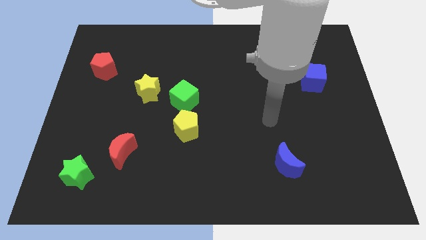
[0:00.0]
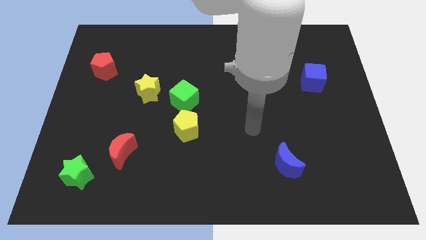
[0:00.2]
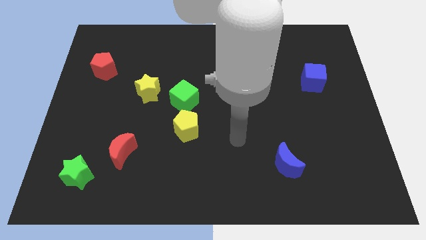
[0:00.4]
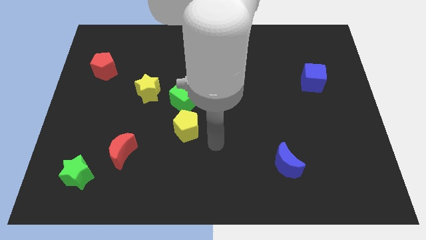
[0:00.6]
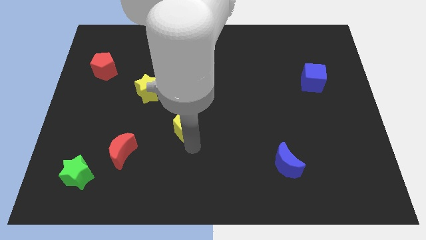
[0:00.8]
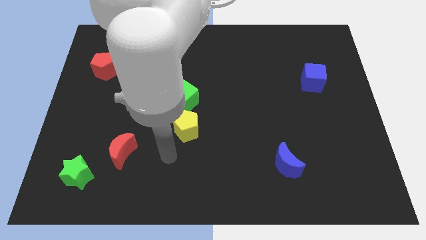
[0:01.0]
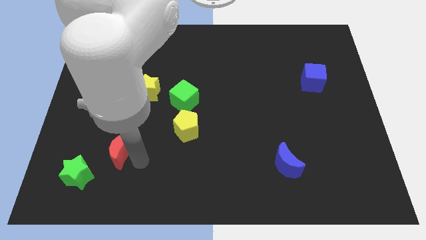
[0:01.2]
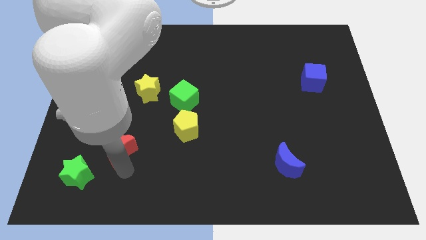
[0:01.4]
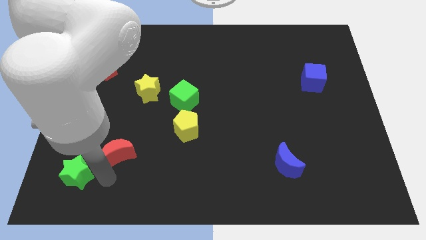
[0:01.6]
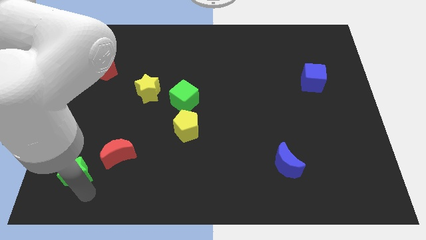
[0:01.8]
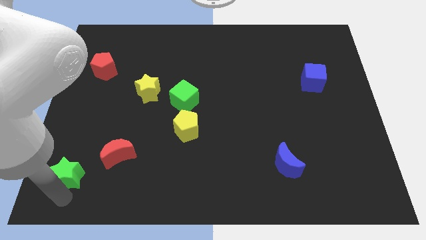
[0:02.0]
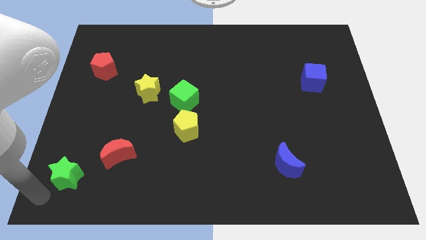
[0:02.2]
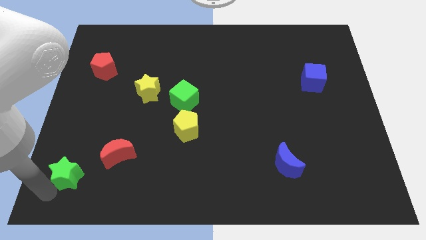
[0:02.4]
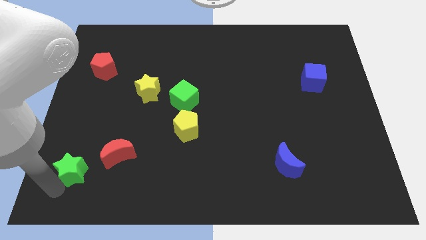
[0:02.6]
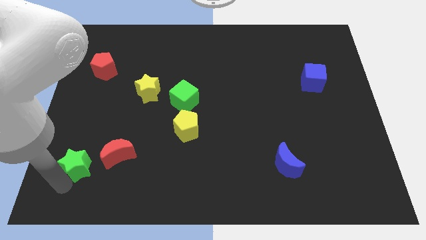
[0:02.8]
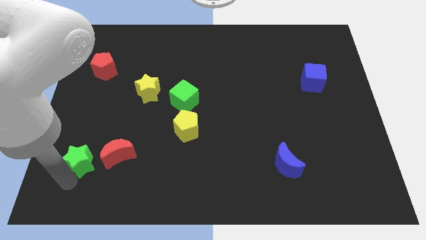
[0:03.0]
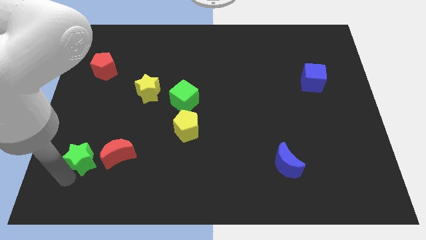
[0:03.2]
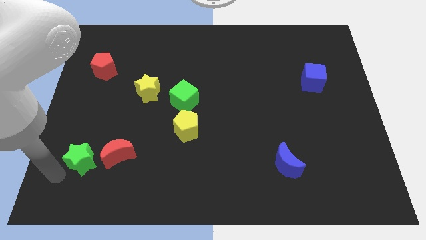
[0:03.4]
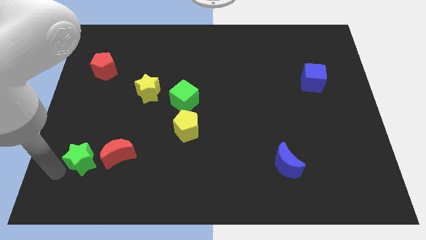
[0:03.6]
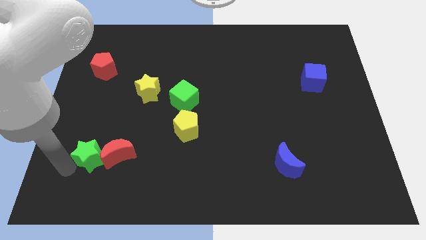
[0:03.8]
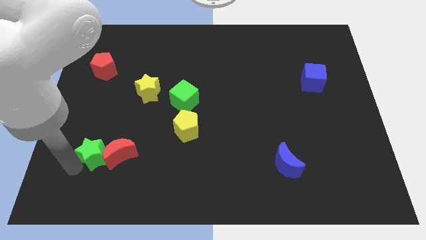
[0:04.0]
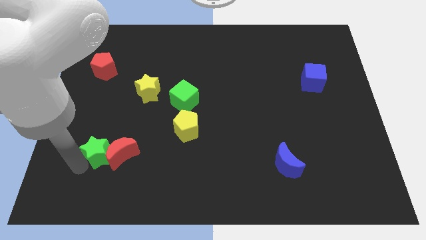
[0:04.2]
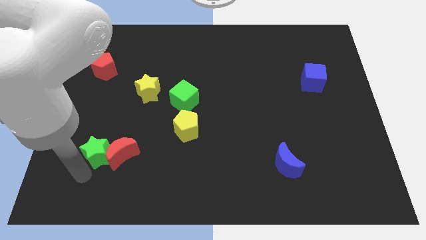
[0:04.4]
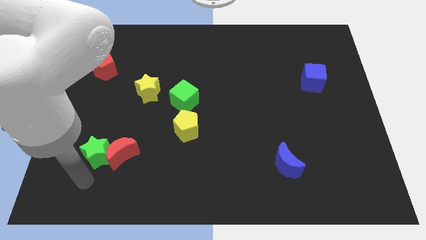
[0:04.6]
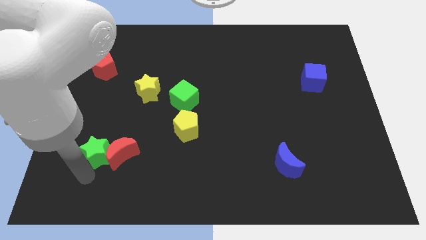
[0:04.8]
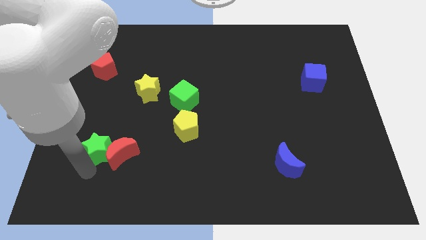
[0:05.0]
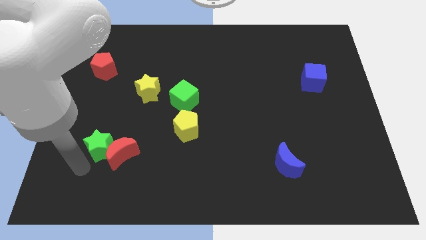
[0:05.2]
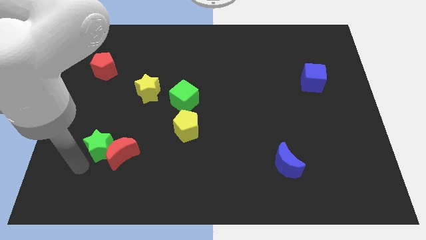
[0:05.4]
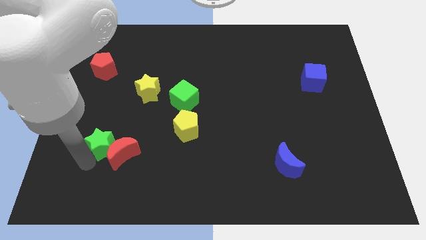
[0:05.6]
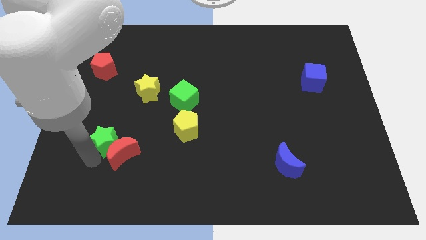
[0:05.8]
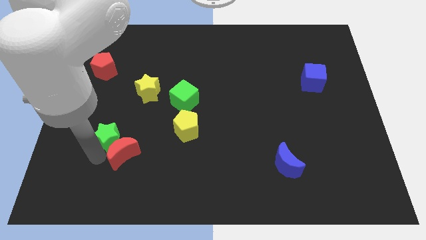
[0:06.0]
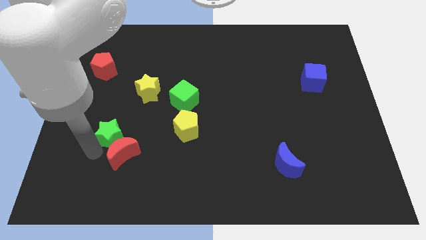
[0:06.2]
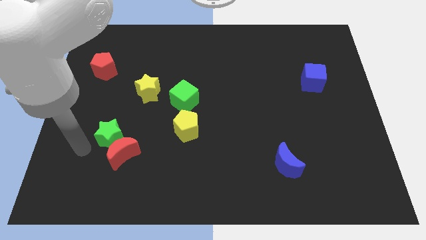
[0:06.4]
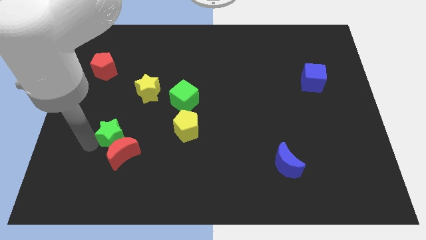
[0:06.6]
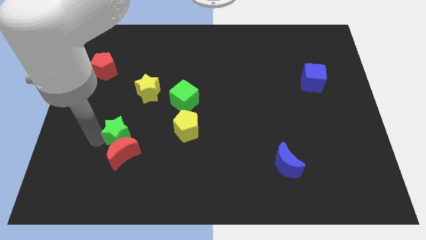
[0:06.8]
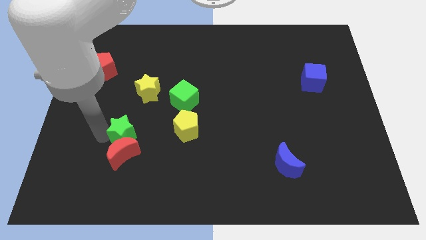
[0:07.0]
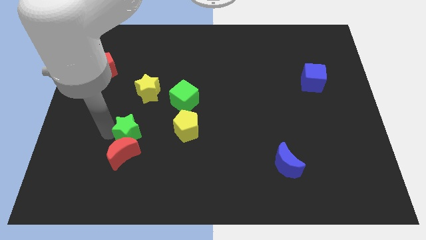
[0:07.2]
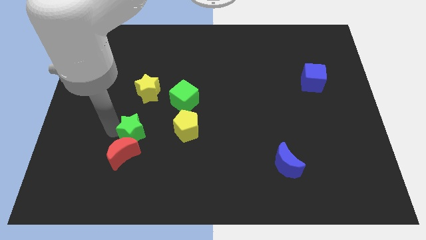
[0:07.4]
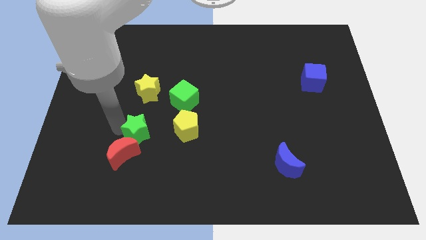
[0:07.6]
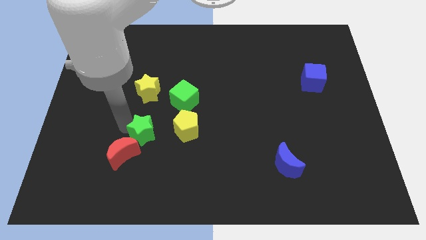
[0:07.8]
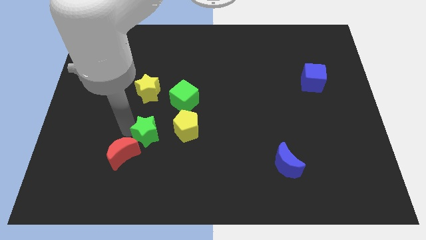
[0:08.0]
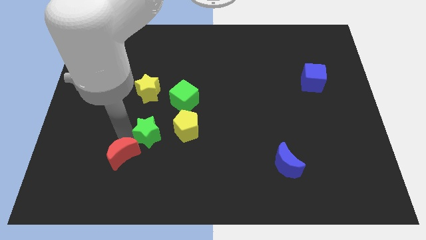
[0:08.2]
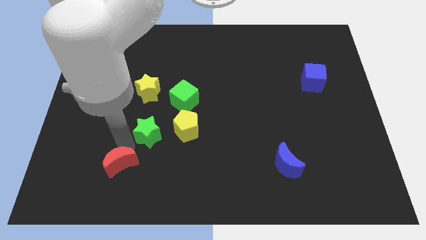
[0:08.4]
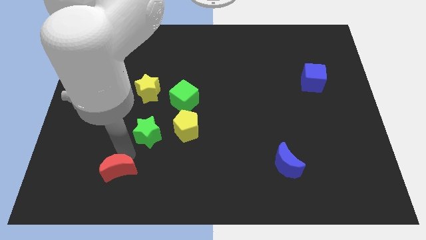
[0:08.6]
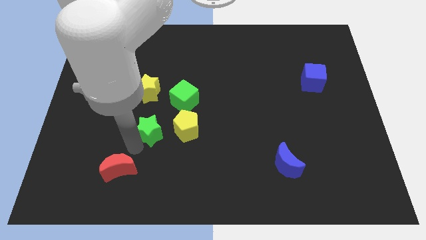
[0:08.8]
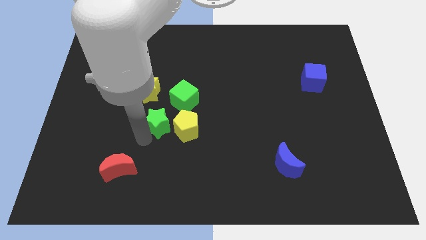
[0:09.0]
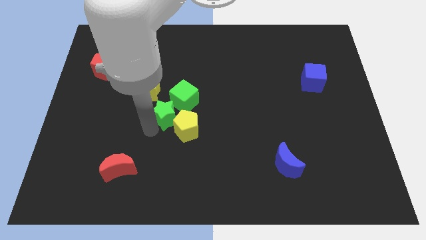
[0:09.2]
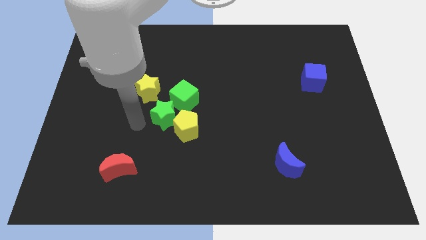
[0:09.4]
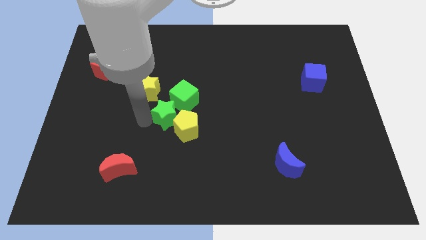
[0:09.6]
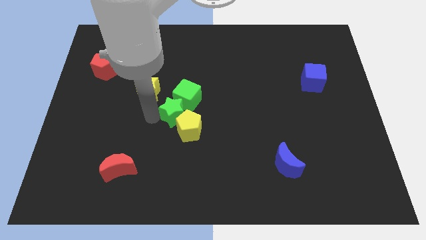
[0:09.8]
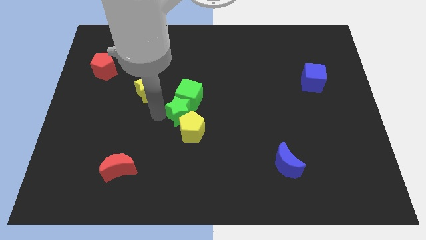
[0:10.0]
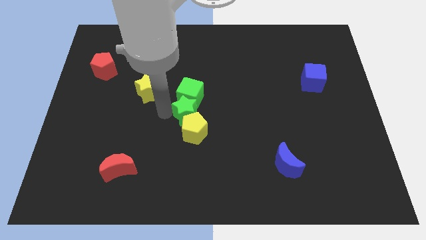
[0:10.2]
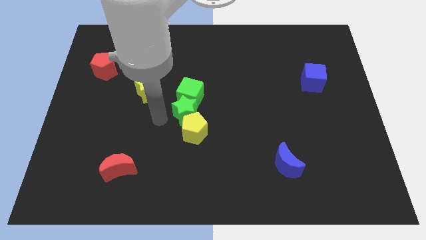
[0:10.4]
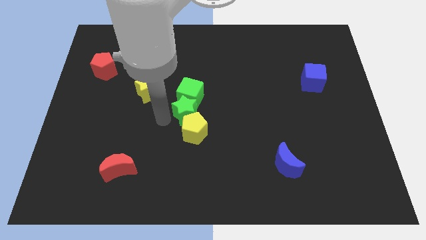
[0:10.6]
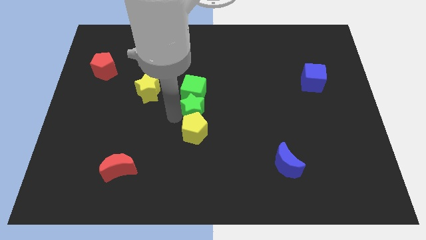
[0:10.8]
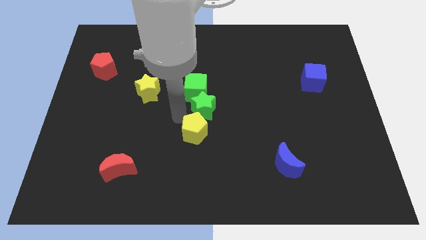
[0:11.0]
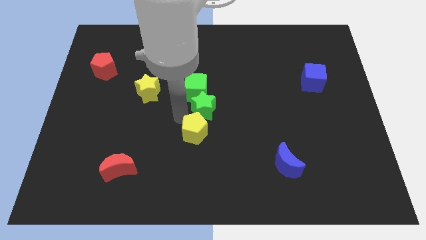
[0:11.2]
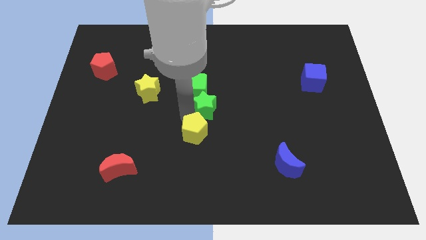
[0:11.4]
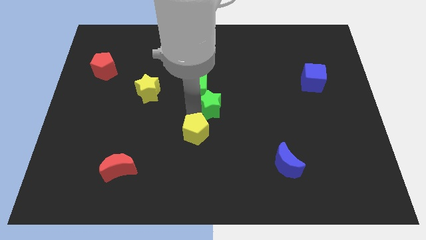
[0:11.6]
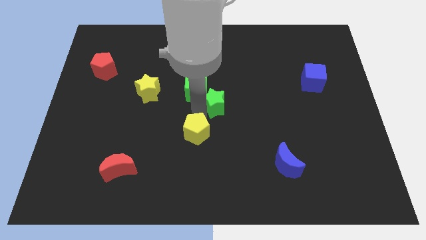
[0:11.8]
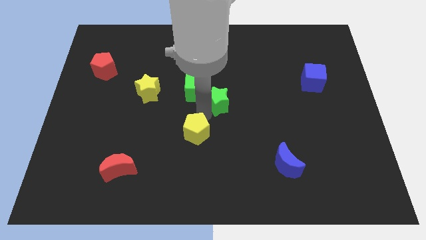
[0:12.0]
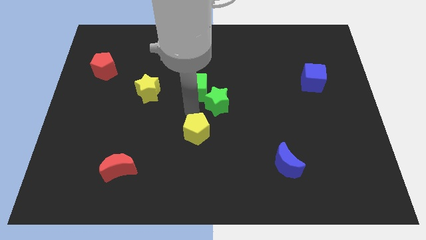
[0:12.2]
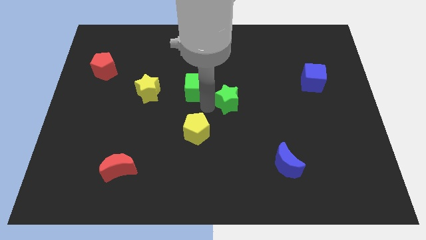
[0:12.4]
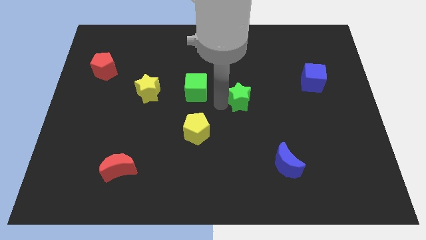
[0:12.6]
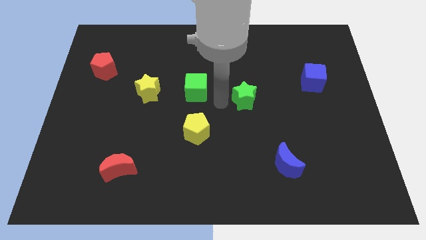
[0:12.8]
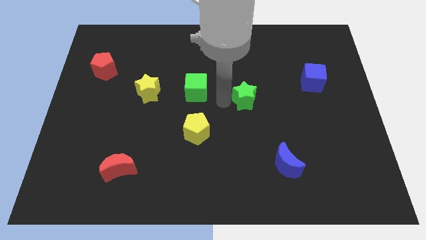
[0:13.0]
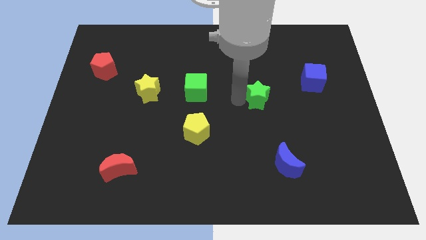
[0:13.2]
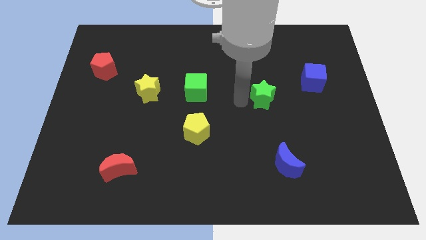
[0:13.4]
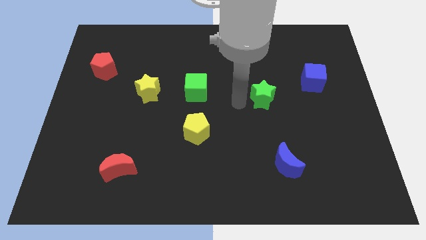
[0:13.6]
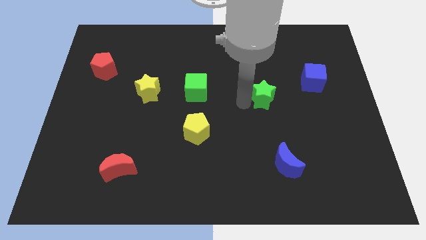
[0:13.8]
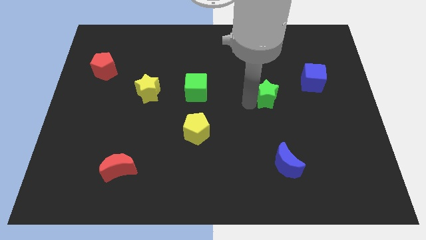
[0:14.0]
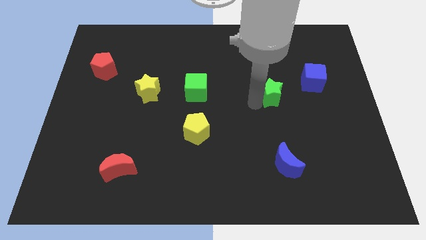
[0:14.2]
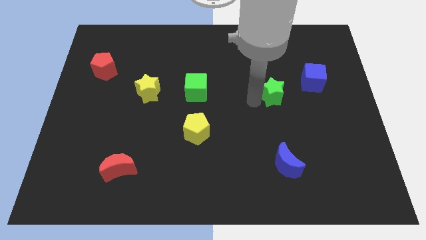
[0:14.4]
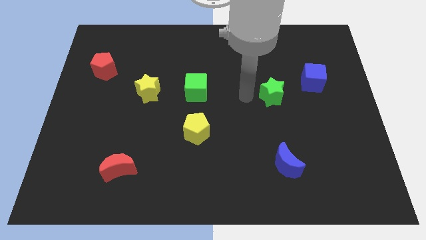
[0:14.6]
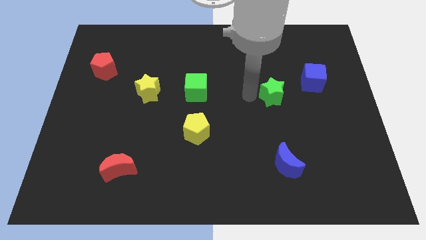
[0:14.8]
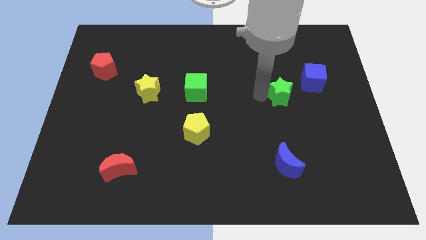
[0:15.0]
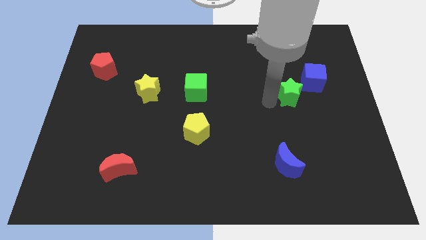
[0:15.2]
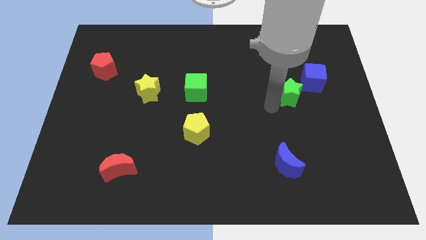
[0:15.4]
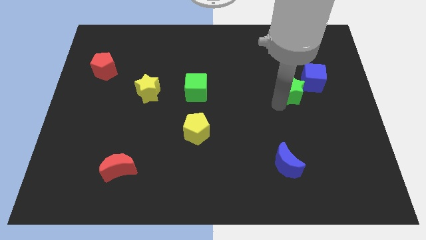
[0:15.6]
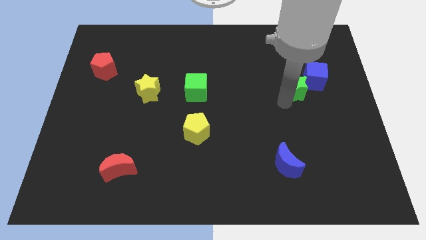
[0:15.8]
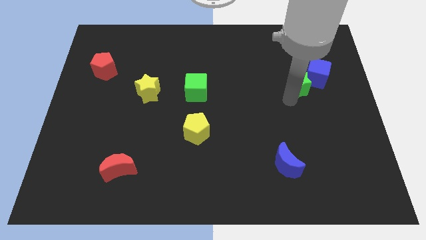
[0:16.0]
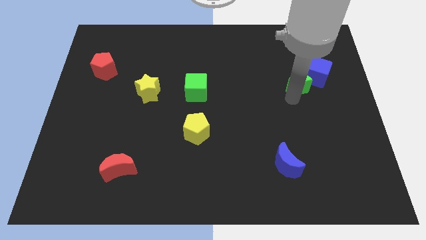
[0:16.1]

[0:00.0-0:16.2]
slide the green star to the blue cube

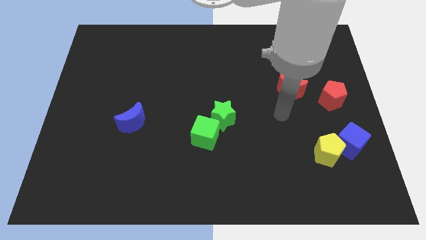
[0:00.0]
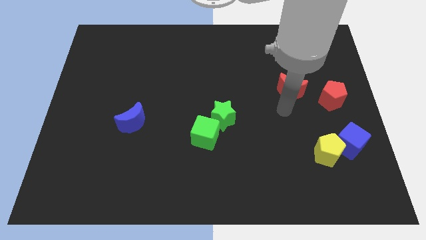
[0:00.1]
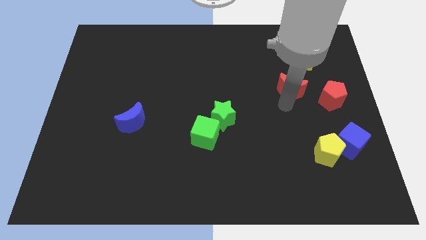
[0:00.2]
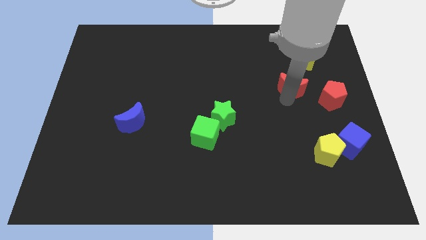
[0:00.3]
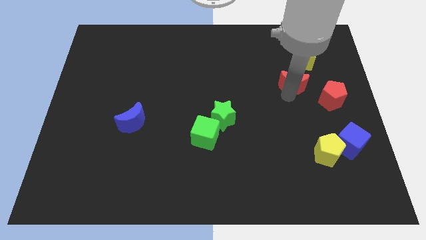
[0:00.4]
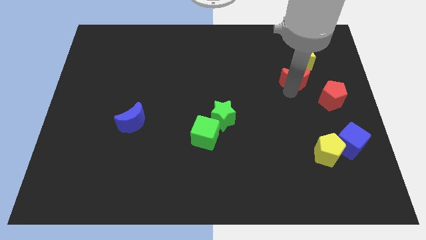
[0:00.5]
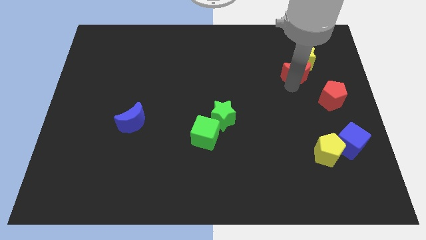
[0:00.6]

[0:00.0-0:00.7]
move the red moon to the yellow star
